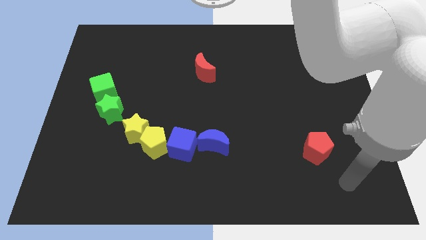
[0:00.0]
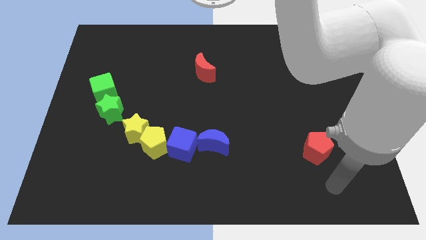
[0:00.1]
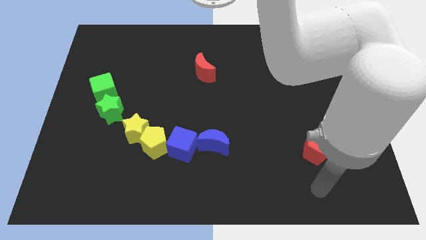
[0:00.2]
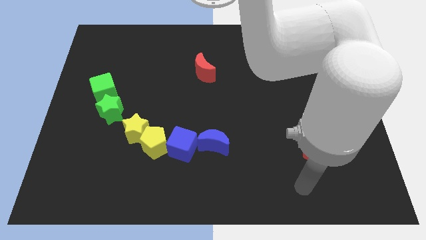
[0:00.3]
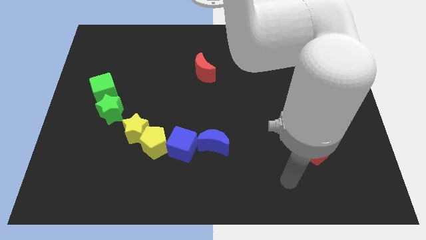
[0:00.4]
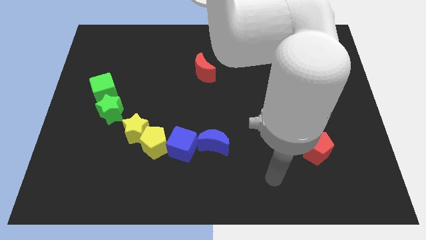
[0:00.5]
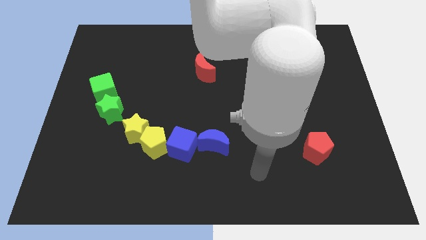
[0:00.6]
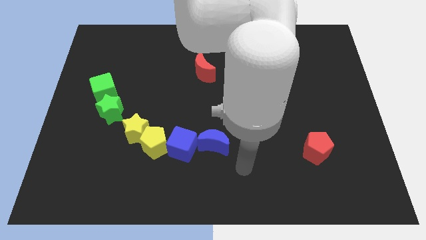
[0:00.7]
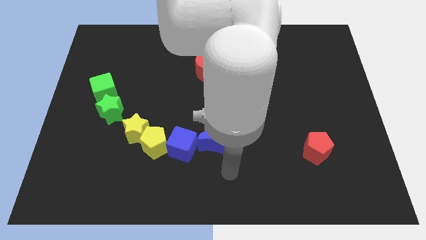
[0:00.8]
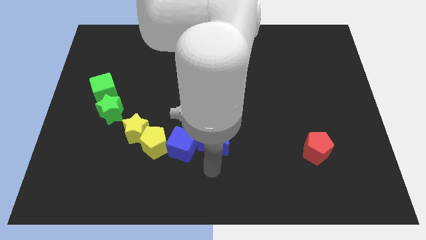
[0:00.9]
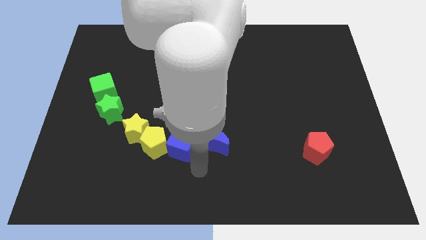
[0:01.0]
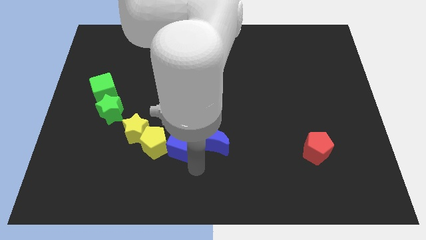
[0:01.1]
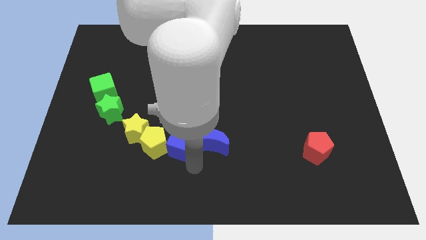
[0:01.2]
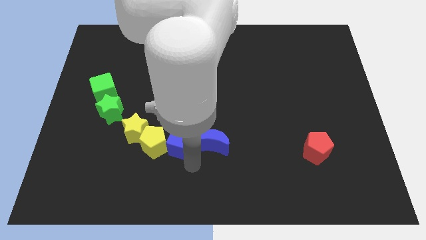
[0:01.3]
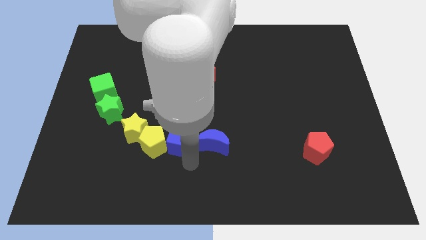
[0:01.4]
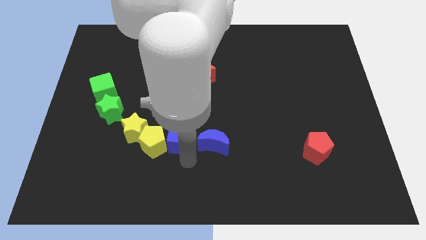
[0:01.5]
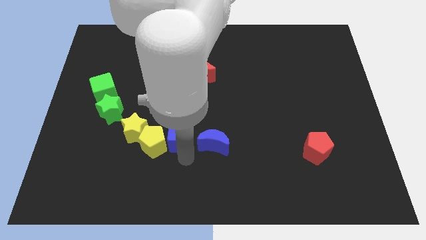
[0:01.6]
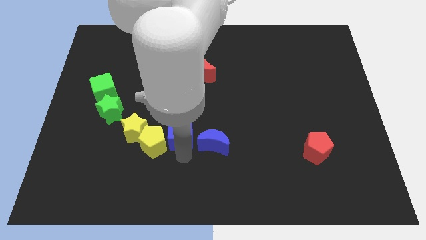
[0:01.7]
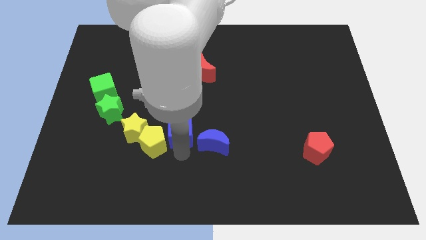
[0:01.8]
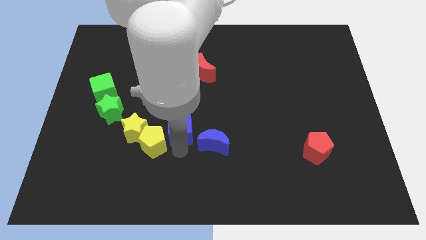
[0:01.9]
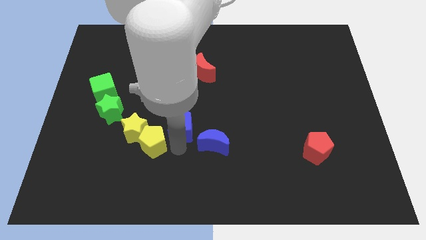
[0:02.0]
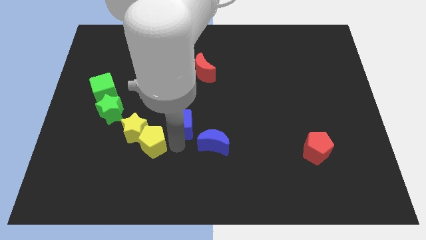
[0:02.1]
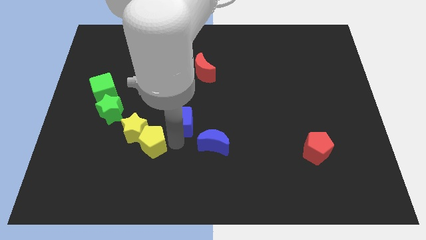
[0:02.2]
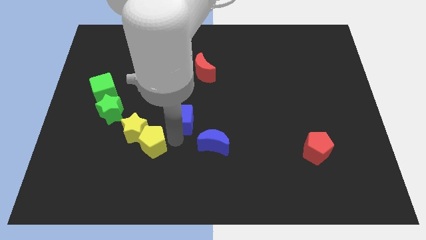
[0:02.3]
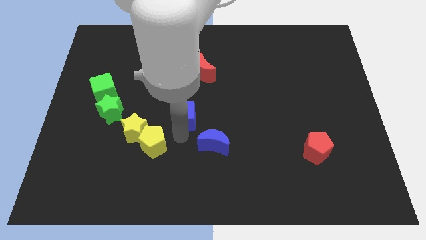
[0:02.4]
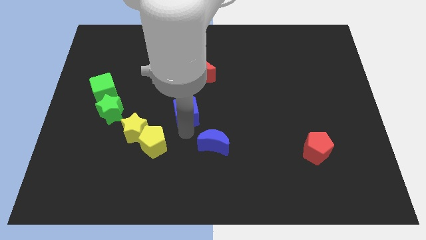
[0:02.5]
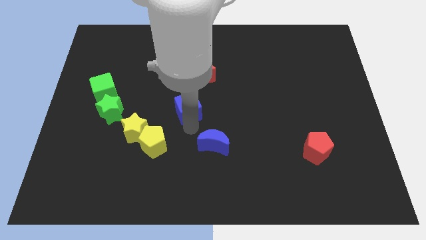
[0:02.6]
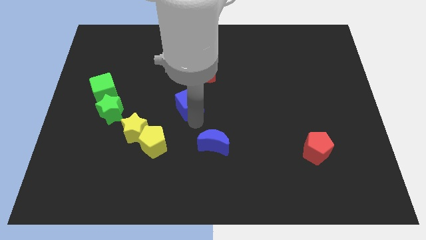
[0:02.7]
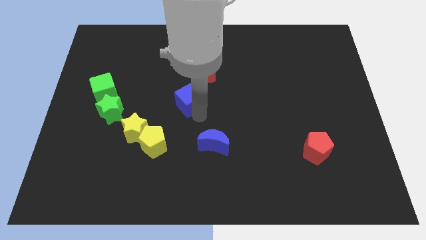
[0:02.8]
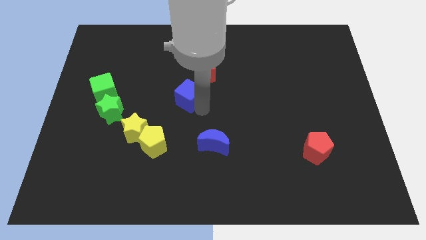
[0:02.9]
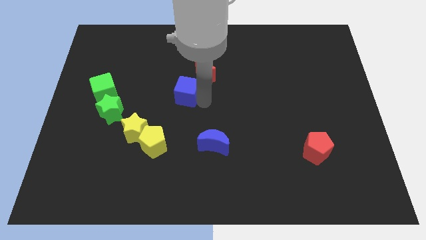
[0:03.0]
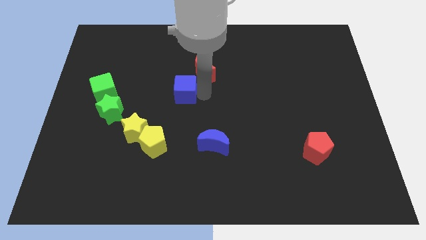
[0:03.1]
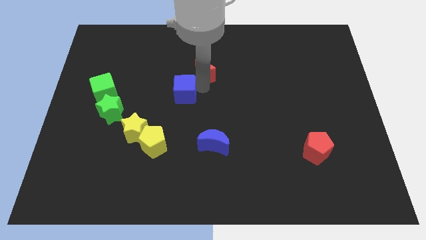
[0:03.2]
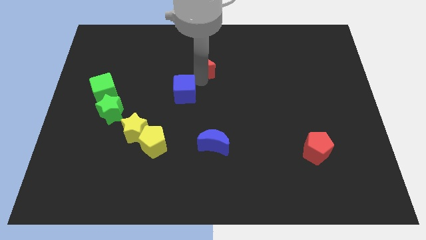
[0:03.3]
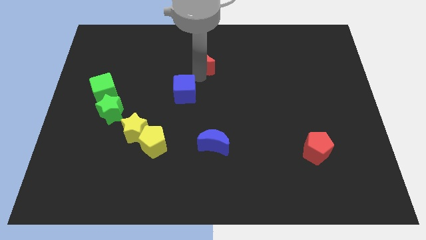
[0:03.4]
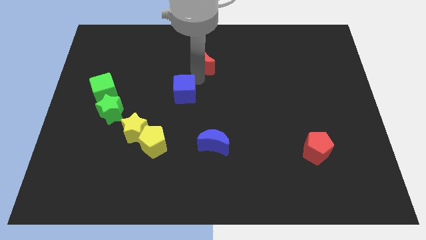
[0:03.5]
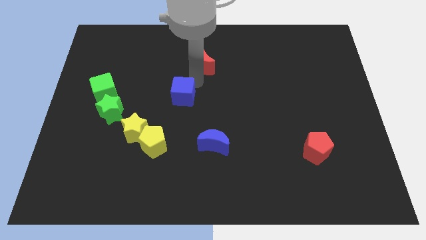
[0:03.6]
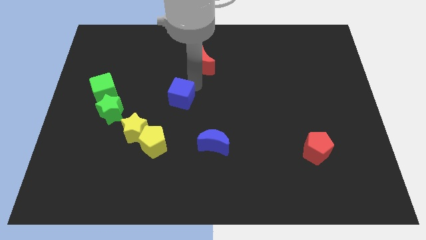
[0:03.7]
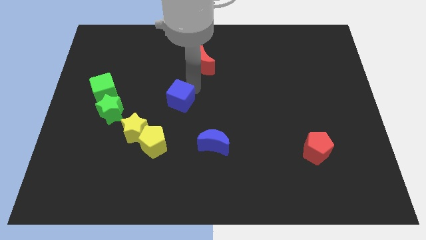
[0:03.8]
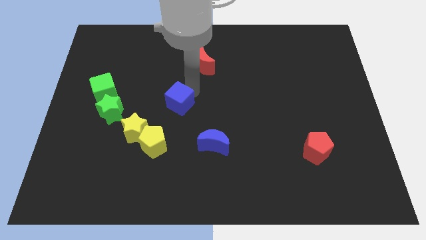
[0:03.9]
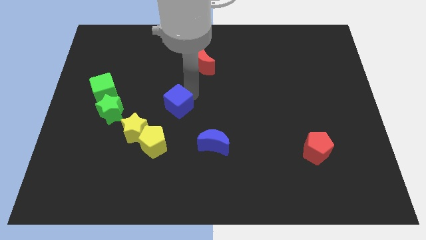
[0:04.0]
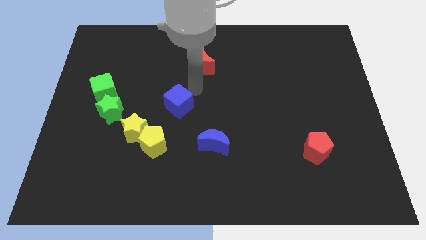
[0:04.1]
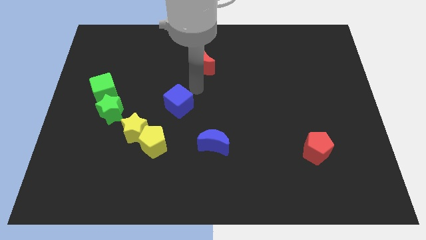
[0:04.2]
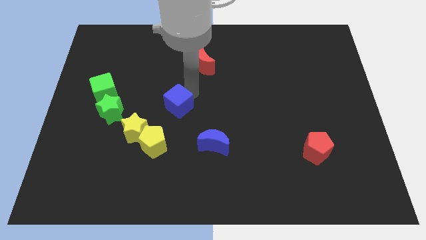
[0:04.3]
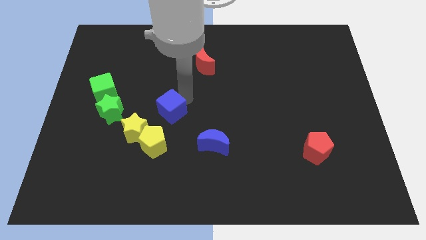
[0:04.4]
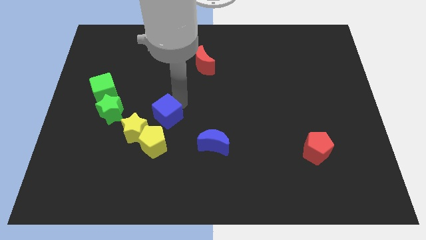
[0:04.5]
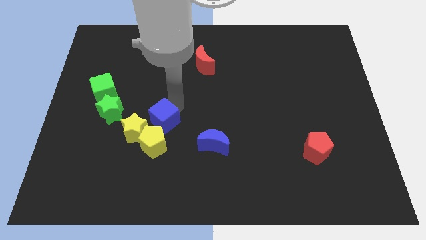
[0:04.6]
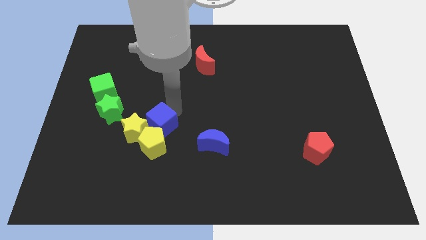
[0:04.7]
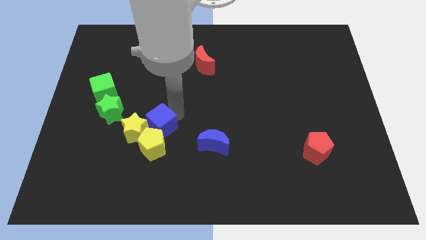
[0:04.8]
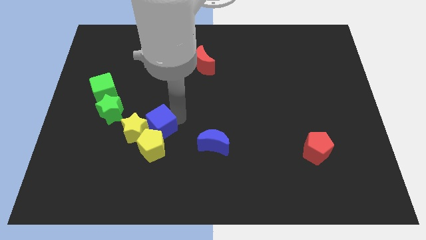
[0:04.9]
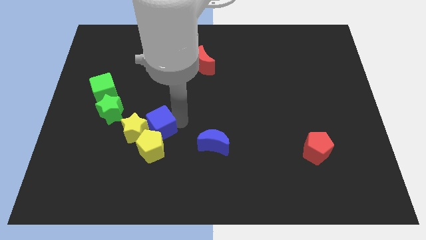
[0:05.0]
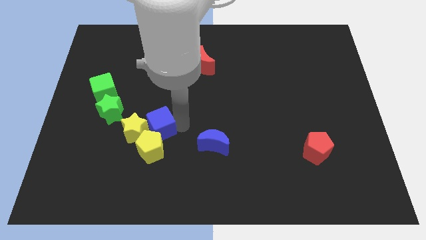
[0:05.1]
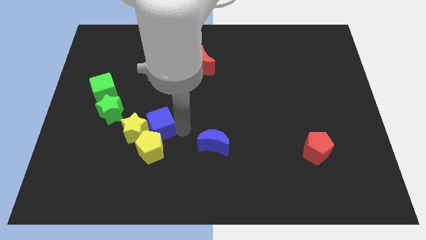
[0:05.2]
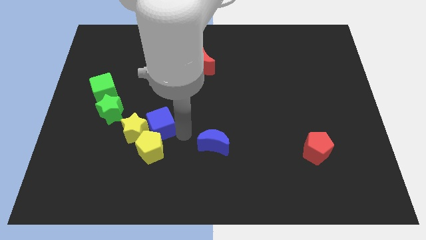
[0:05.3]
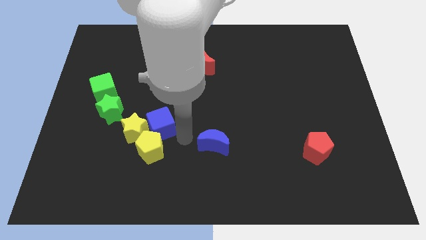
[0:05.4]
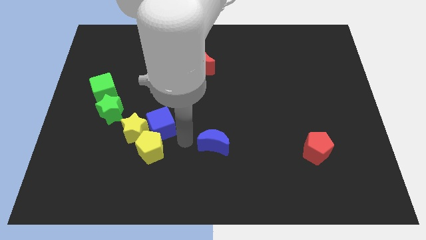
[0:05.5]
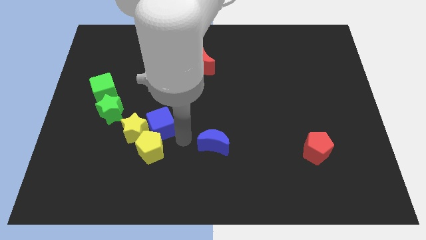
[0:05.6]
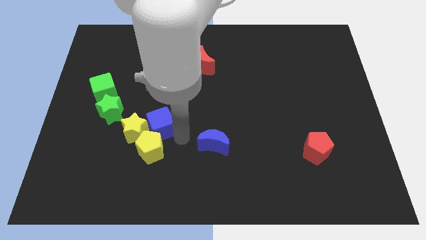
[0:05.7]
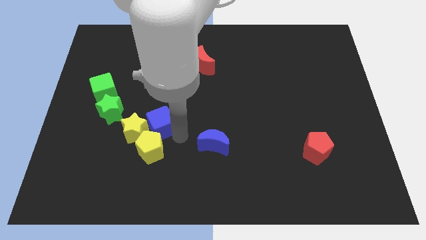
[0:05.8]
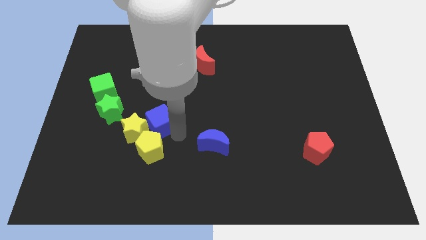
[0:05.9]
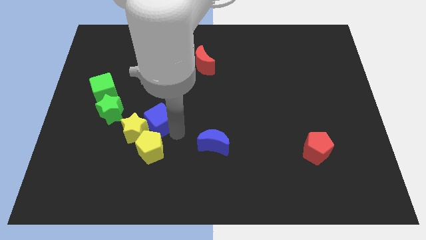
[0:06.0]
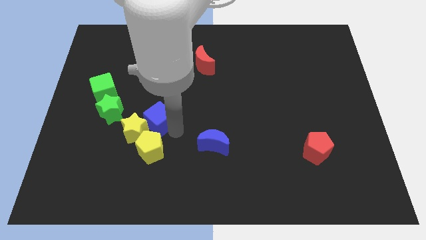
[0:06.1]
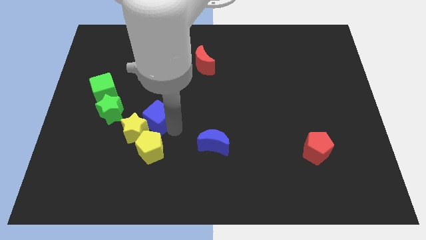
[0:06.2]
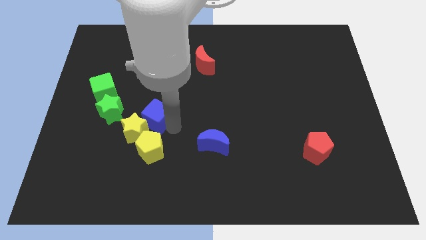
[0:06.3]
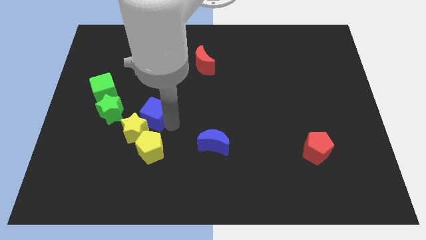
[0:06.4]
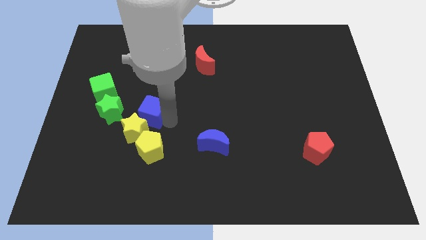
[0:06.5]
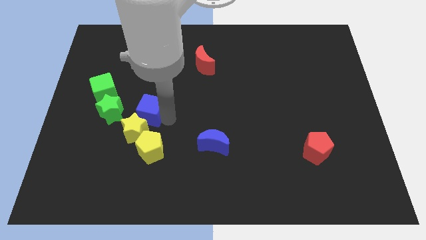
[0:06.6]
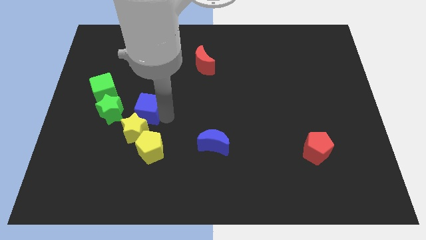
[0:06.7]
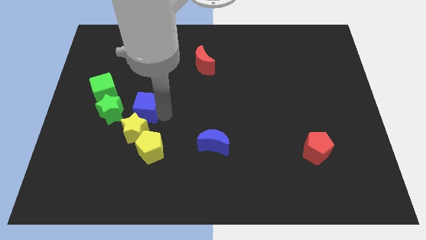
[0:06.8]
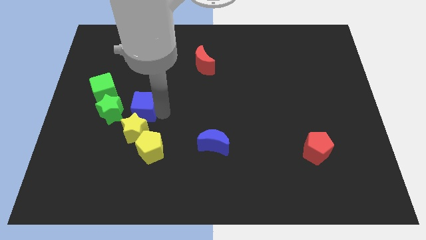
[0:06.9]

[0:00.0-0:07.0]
push the blue cube to the bottom right side of the green cube
